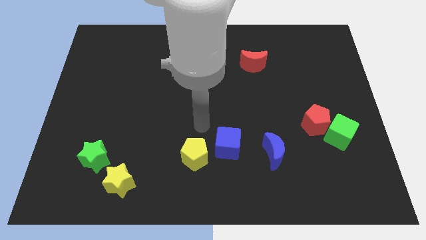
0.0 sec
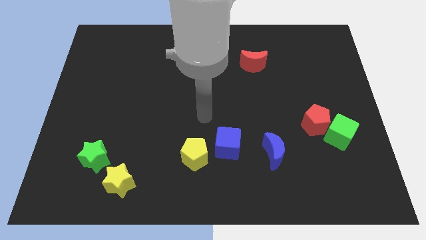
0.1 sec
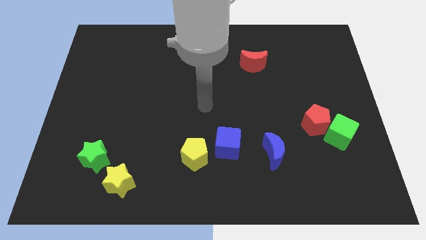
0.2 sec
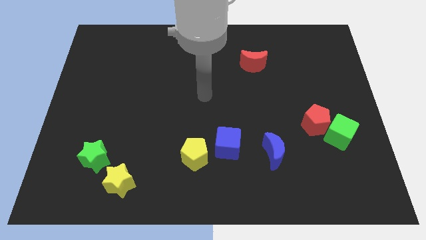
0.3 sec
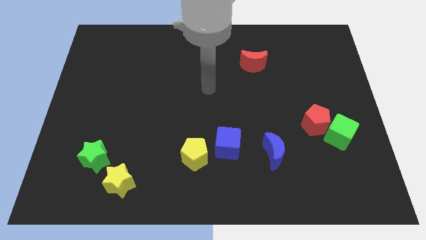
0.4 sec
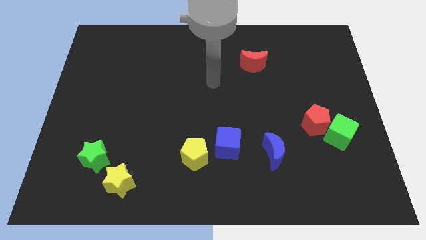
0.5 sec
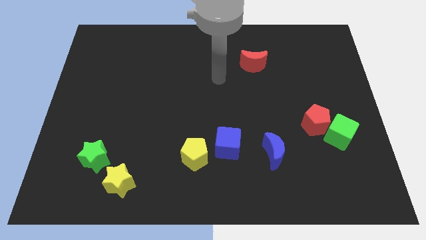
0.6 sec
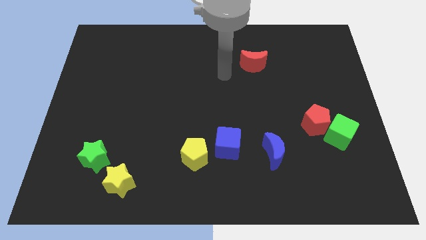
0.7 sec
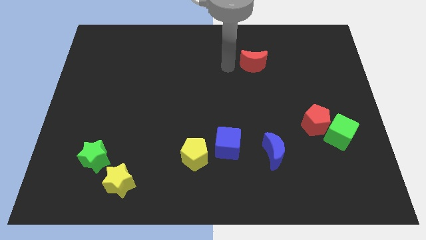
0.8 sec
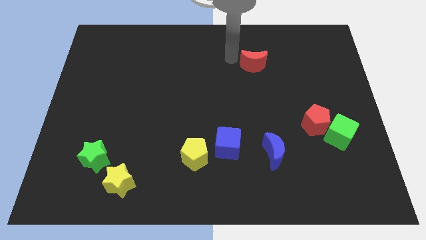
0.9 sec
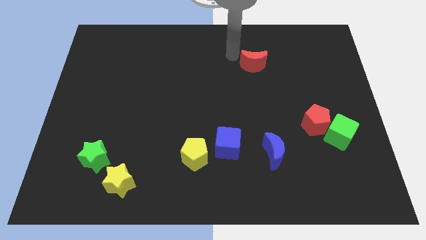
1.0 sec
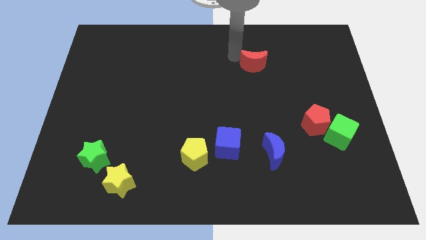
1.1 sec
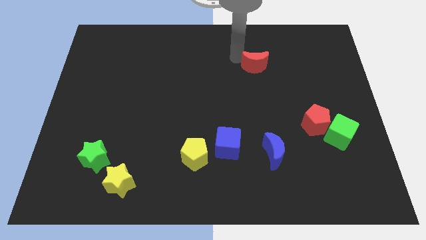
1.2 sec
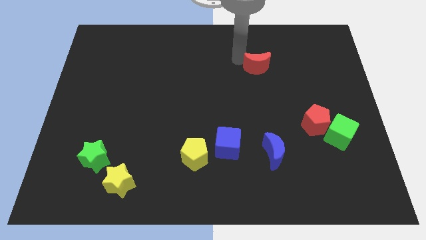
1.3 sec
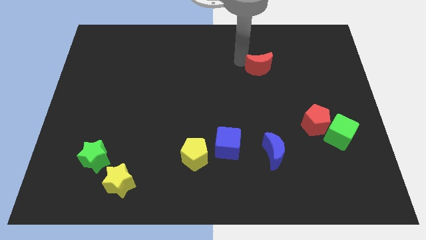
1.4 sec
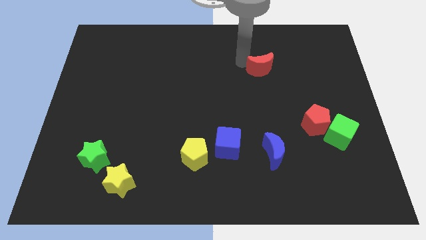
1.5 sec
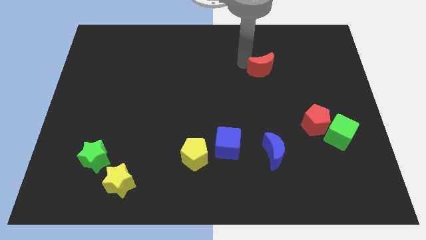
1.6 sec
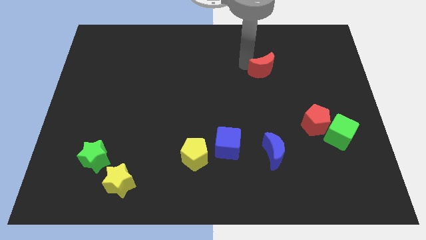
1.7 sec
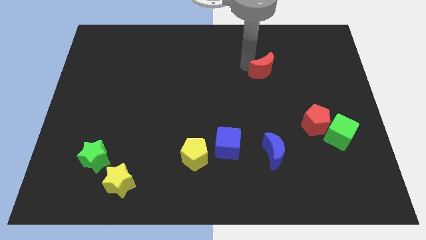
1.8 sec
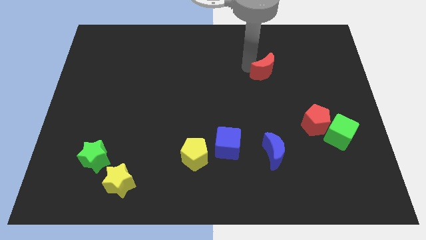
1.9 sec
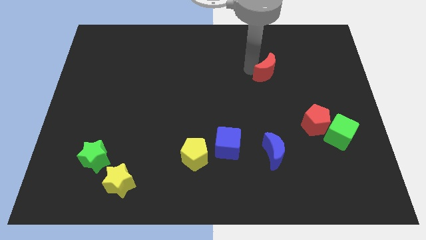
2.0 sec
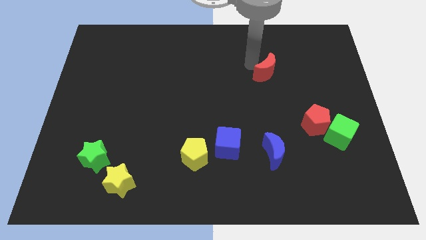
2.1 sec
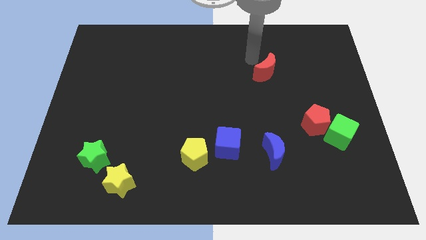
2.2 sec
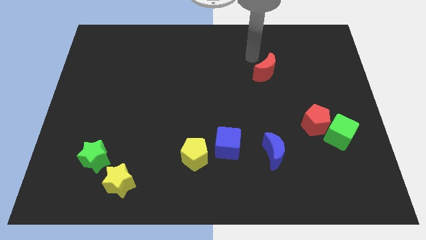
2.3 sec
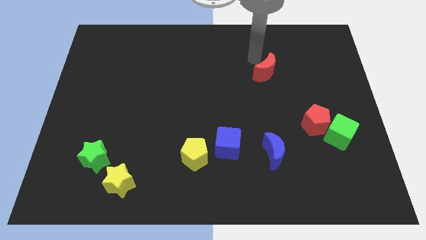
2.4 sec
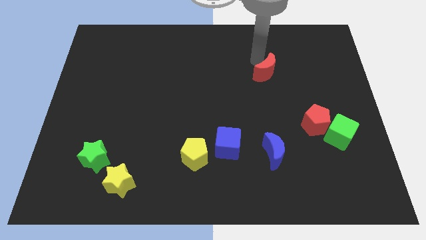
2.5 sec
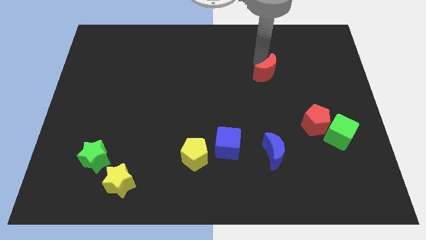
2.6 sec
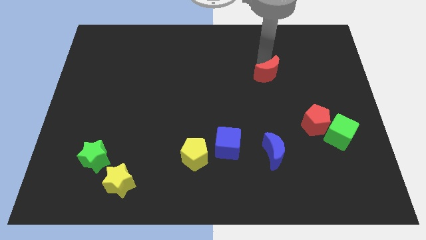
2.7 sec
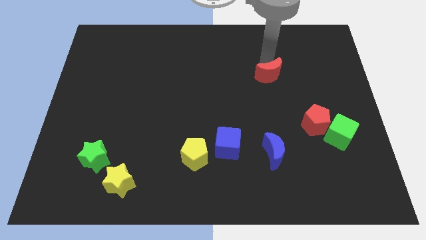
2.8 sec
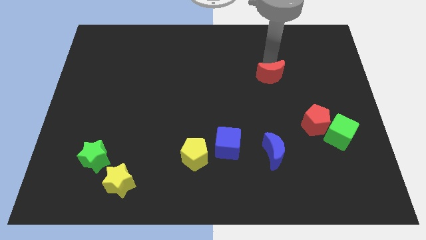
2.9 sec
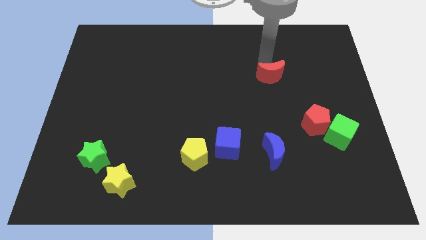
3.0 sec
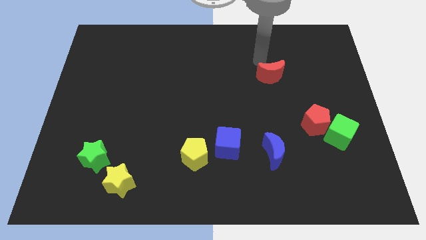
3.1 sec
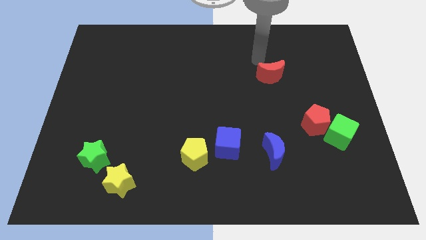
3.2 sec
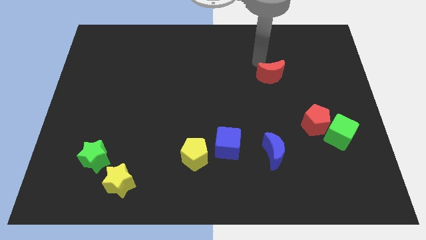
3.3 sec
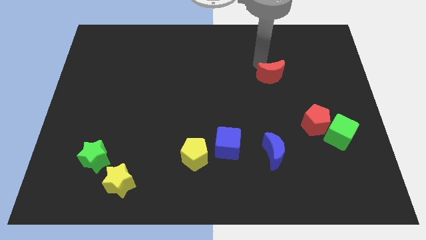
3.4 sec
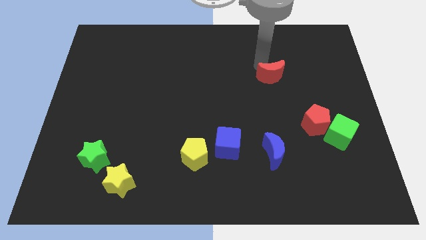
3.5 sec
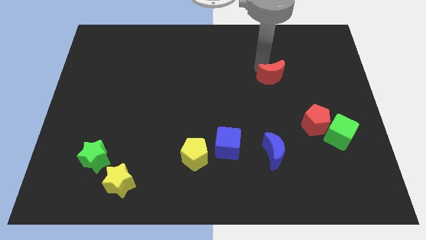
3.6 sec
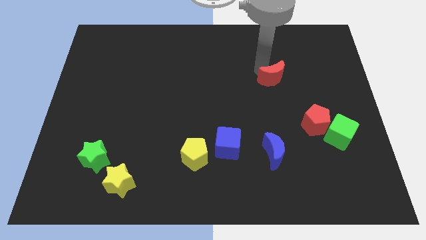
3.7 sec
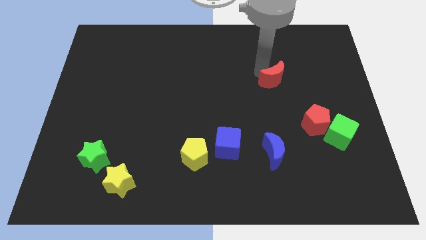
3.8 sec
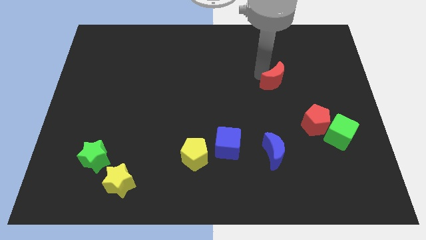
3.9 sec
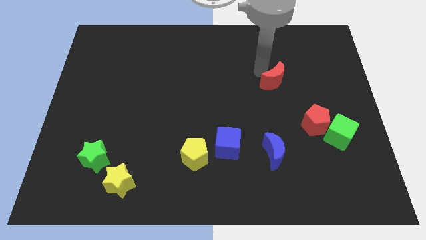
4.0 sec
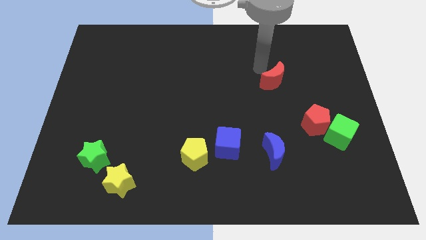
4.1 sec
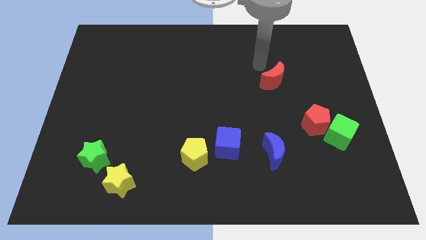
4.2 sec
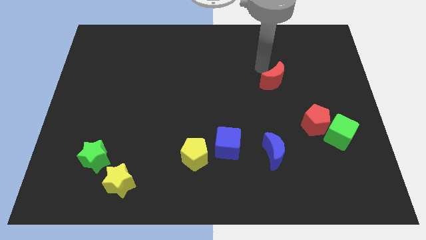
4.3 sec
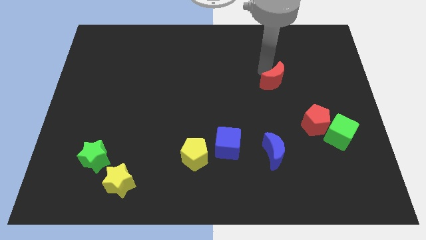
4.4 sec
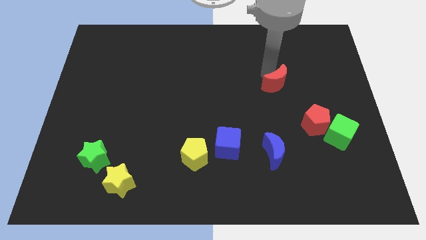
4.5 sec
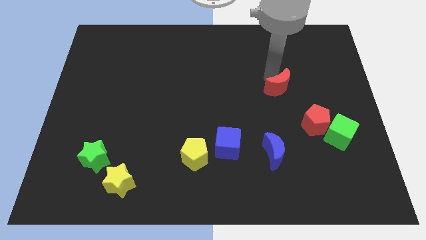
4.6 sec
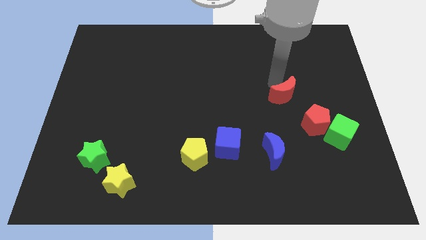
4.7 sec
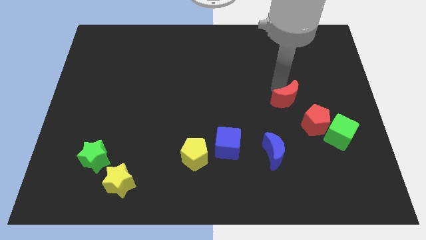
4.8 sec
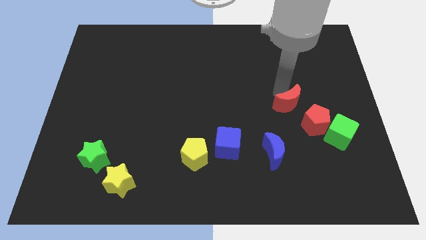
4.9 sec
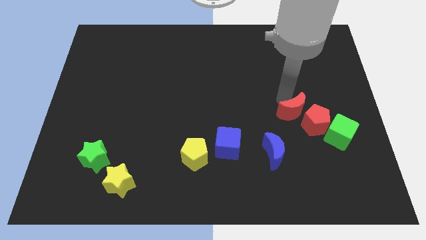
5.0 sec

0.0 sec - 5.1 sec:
move the red moon close to the red pentagon

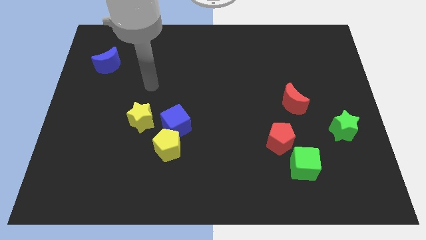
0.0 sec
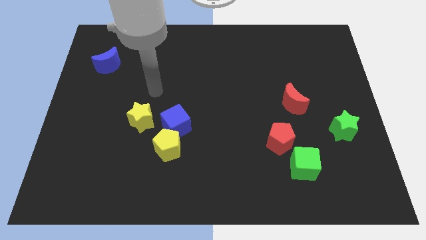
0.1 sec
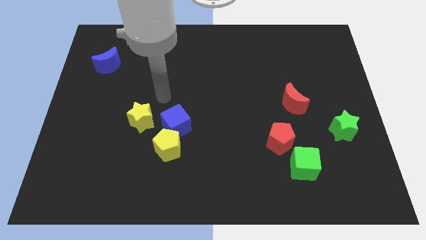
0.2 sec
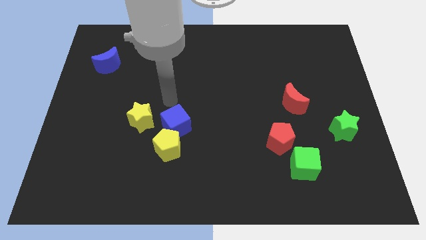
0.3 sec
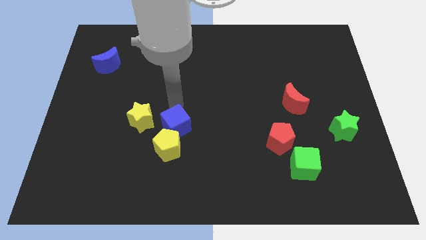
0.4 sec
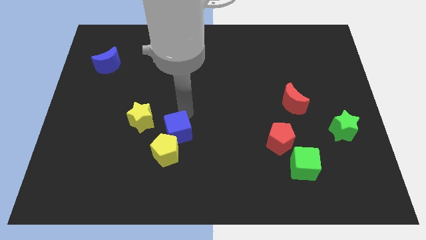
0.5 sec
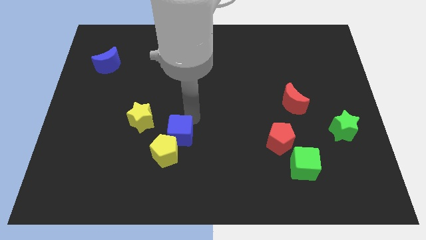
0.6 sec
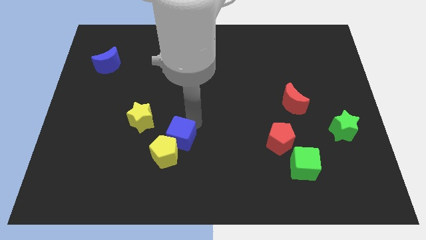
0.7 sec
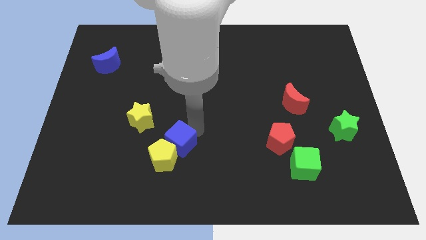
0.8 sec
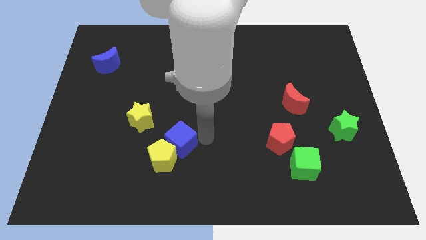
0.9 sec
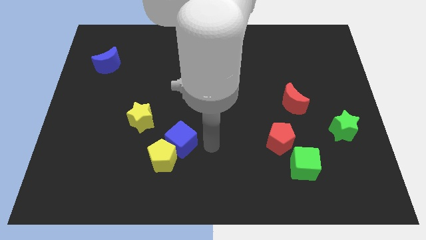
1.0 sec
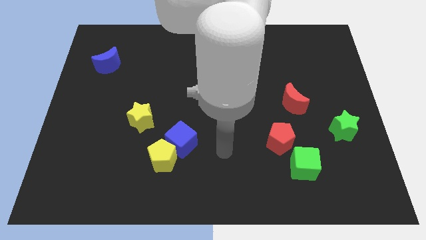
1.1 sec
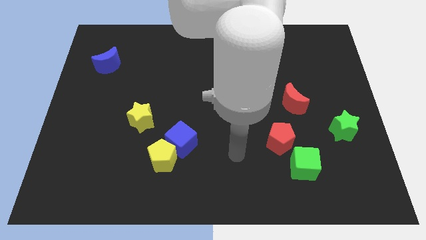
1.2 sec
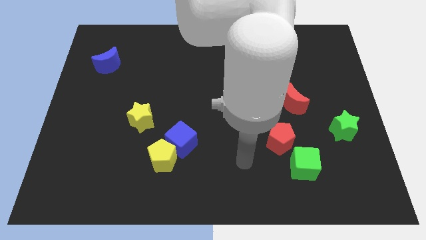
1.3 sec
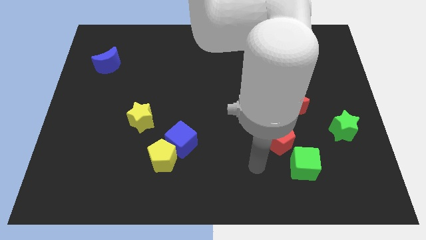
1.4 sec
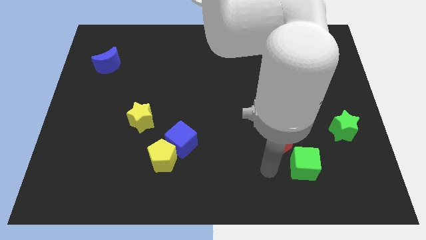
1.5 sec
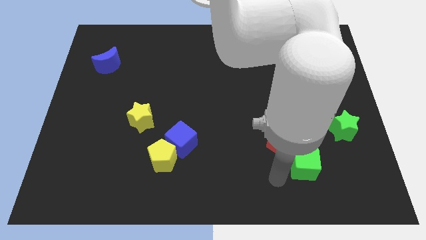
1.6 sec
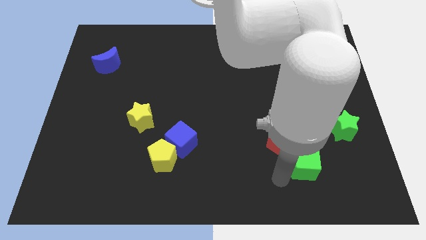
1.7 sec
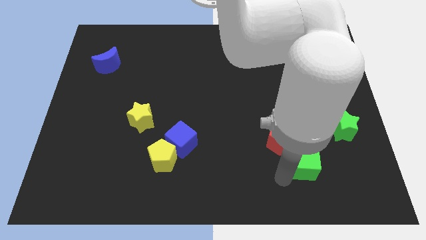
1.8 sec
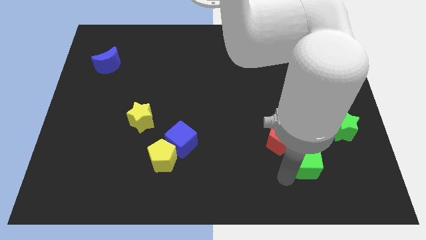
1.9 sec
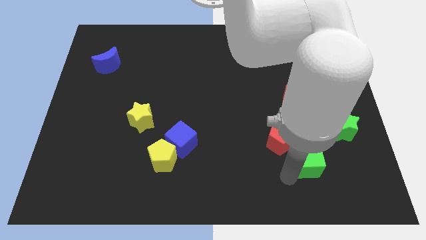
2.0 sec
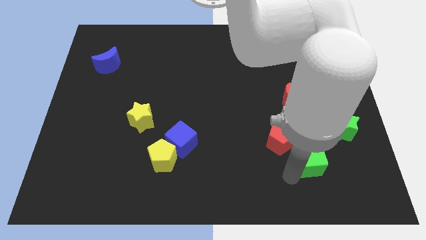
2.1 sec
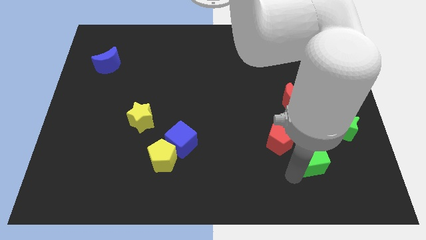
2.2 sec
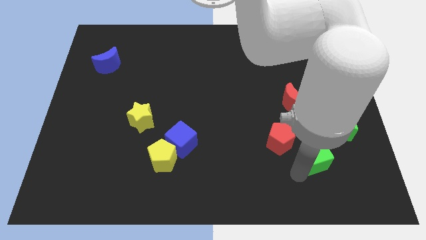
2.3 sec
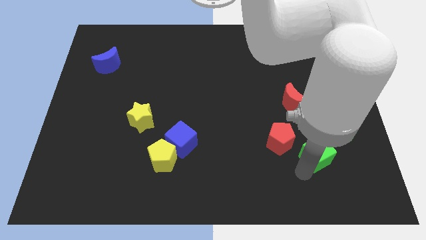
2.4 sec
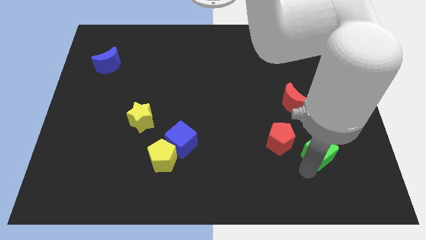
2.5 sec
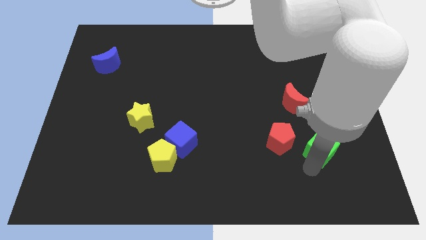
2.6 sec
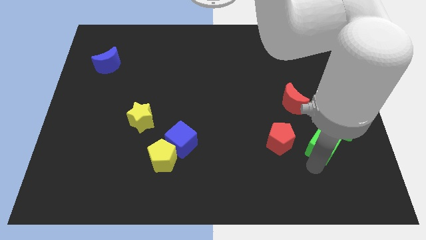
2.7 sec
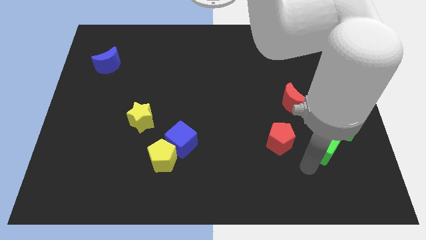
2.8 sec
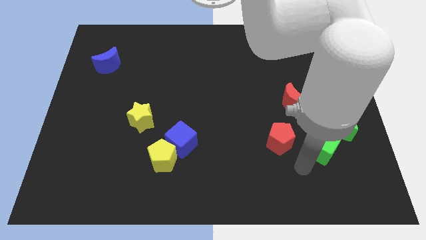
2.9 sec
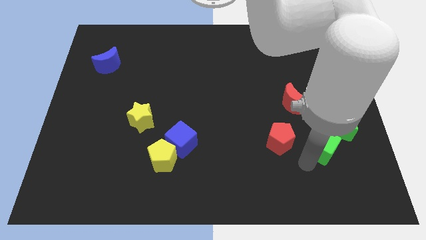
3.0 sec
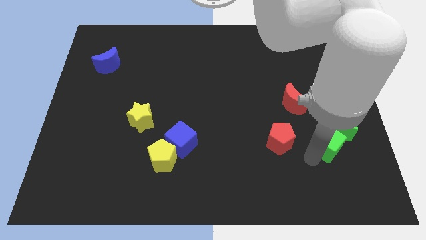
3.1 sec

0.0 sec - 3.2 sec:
put the green cube close to the green star
